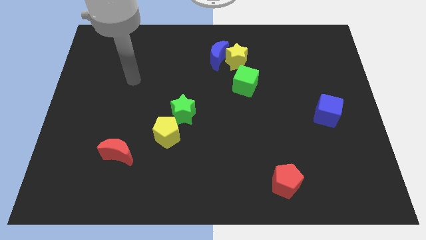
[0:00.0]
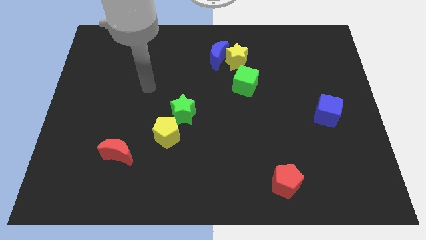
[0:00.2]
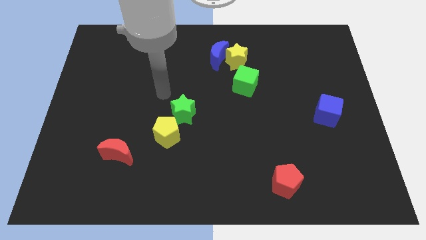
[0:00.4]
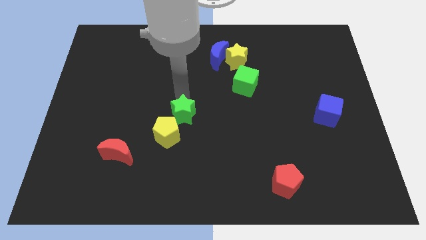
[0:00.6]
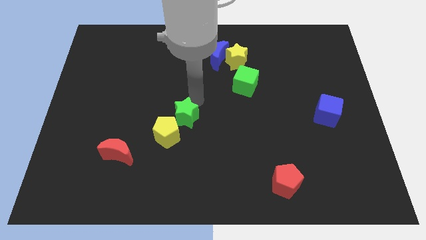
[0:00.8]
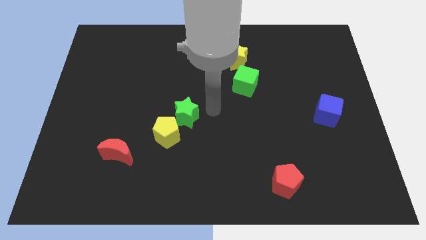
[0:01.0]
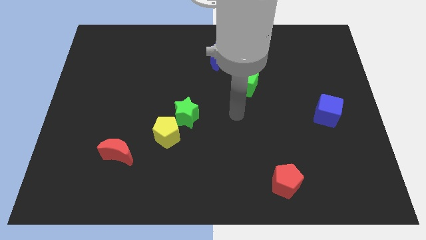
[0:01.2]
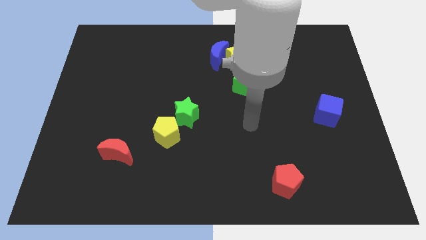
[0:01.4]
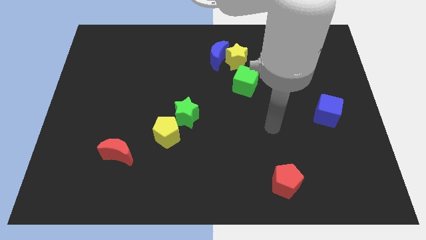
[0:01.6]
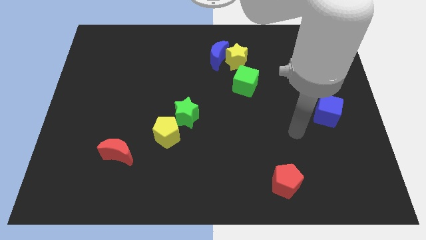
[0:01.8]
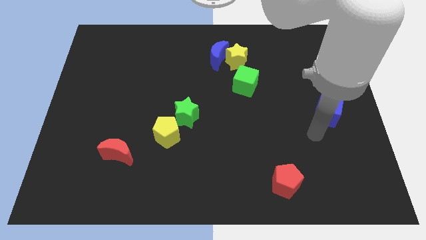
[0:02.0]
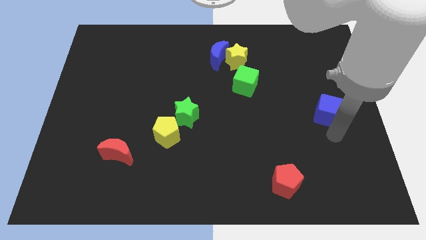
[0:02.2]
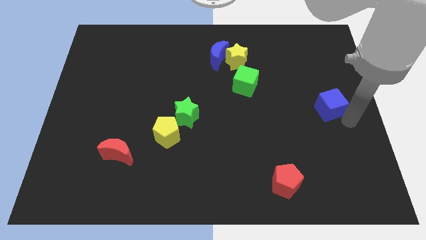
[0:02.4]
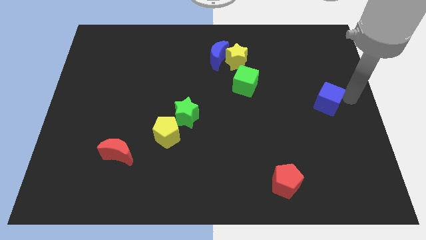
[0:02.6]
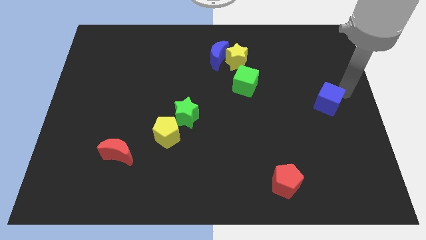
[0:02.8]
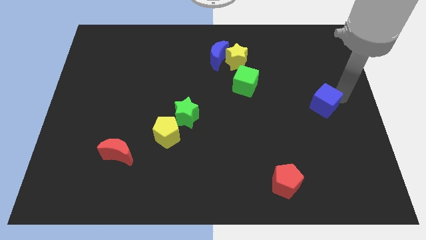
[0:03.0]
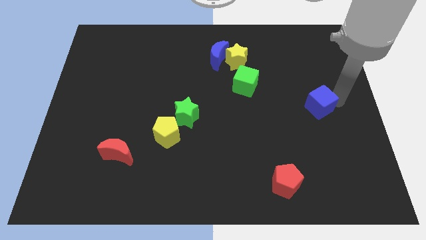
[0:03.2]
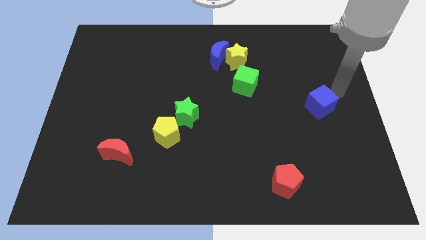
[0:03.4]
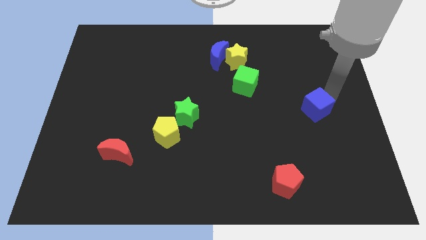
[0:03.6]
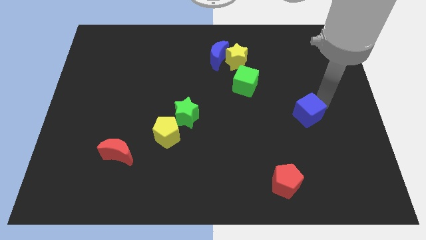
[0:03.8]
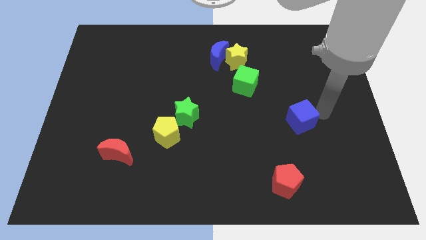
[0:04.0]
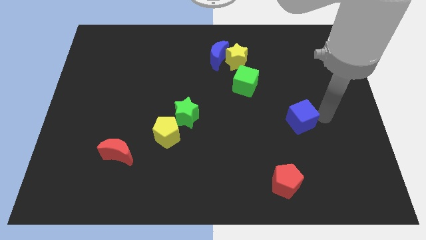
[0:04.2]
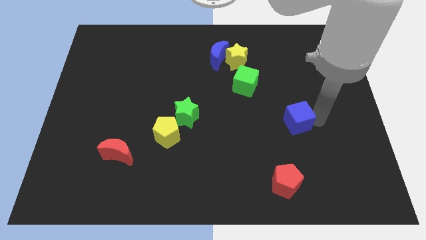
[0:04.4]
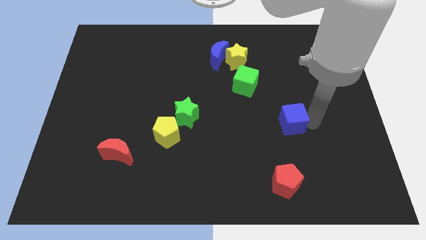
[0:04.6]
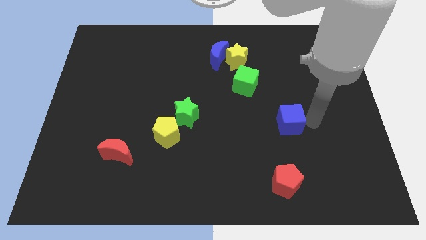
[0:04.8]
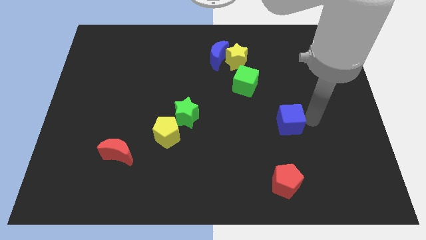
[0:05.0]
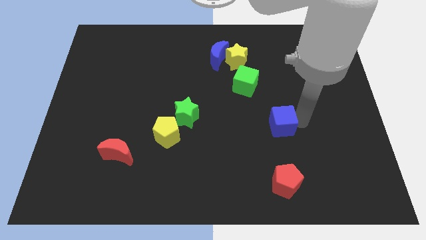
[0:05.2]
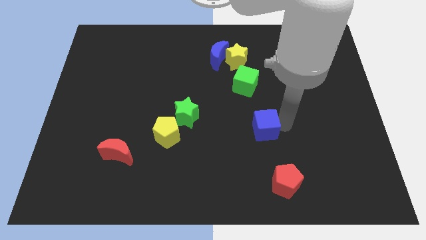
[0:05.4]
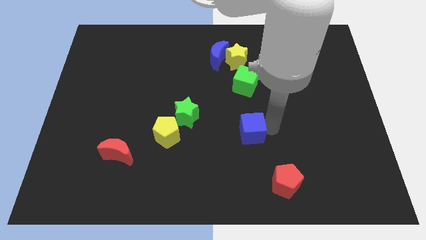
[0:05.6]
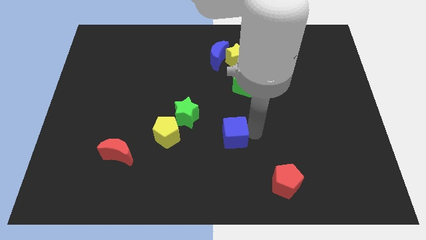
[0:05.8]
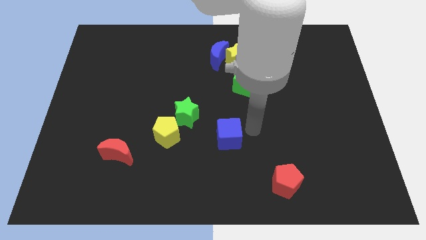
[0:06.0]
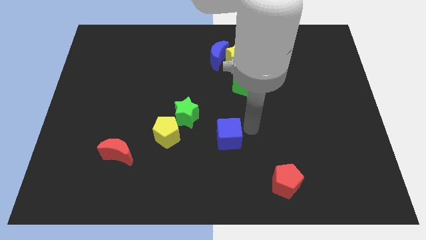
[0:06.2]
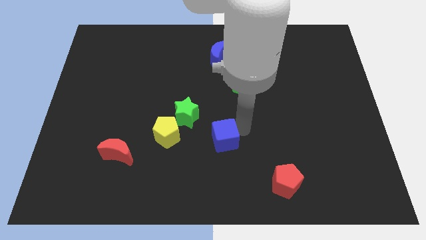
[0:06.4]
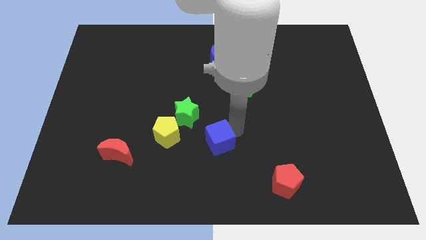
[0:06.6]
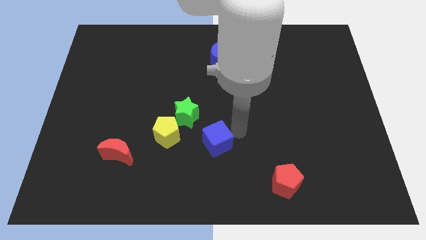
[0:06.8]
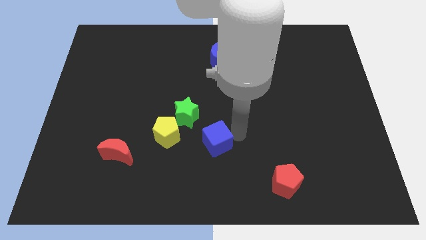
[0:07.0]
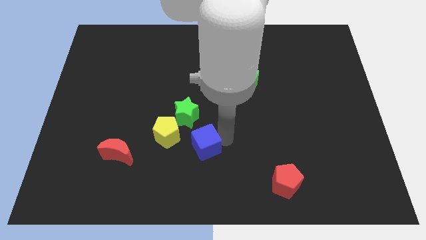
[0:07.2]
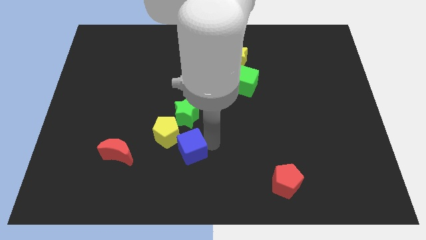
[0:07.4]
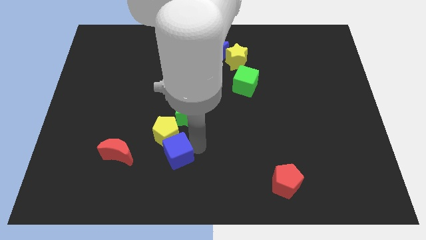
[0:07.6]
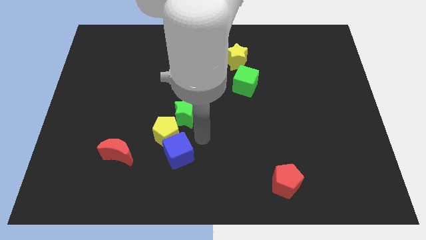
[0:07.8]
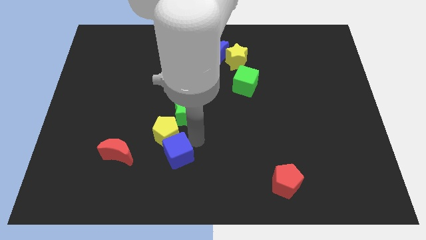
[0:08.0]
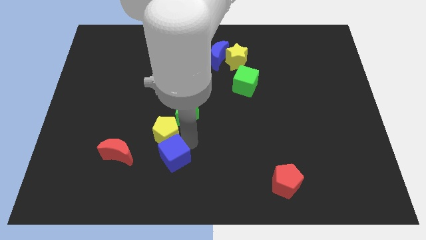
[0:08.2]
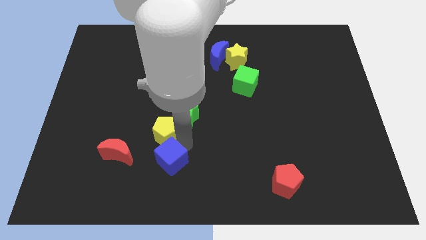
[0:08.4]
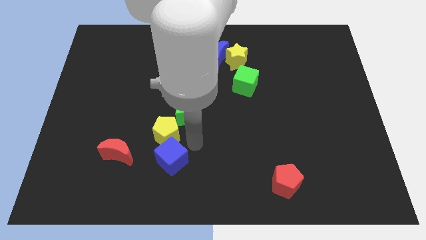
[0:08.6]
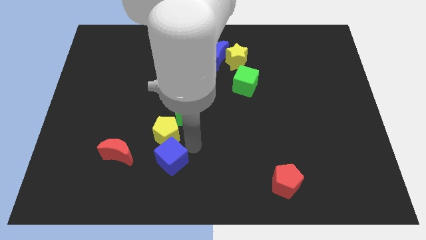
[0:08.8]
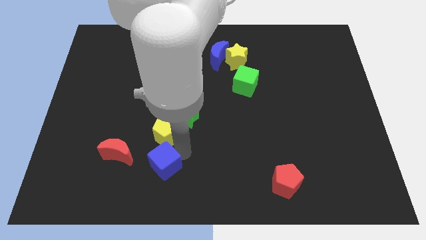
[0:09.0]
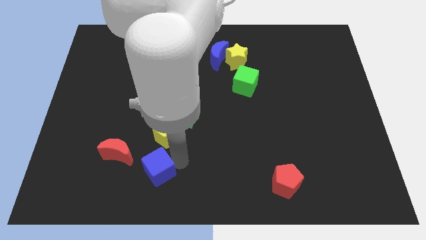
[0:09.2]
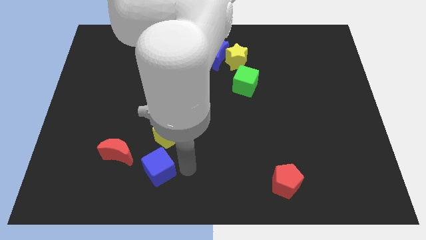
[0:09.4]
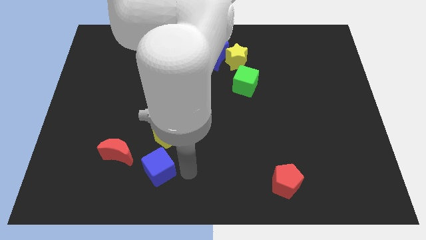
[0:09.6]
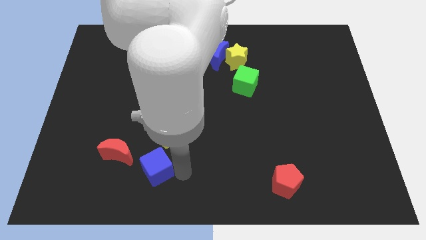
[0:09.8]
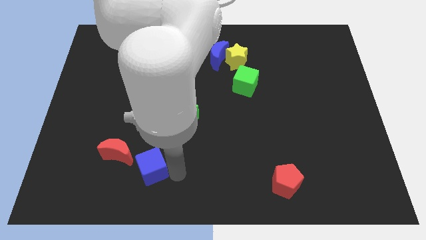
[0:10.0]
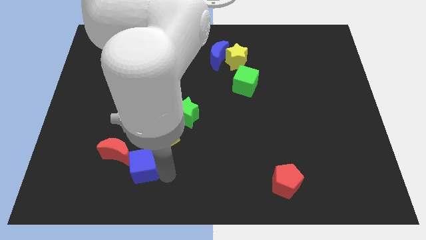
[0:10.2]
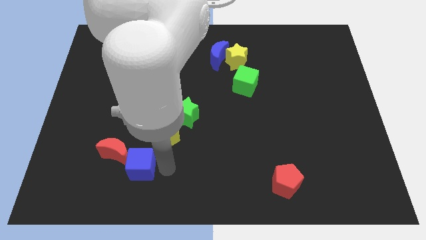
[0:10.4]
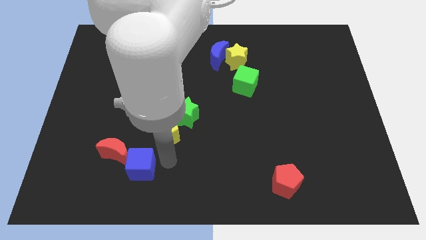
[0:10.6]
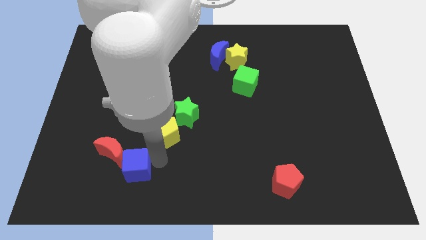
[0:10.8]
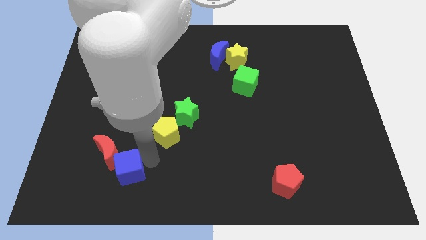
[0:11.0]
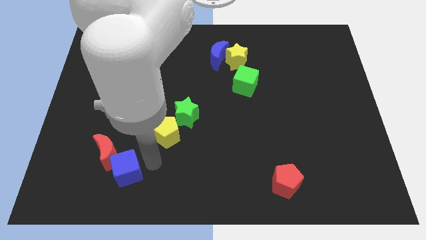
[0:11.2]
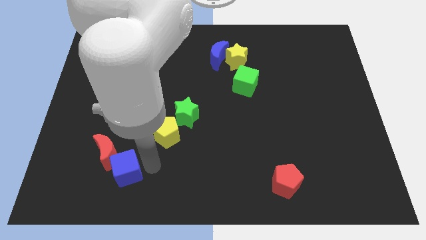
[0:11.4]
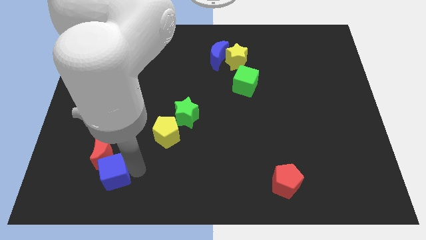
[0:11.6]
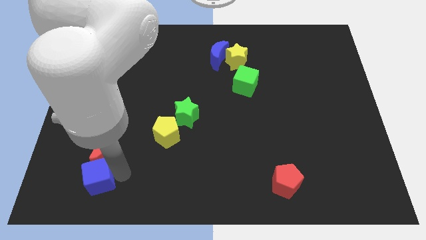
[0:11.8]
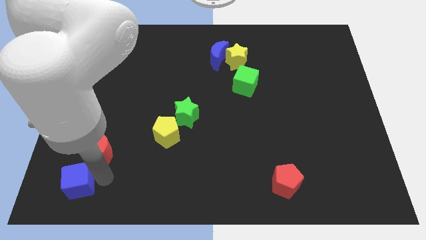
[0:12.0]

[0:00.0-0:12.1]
slide the blue cube to the lower left corner
